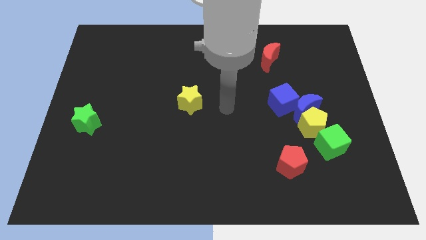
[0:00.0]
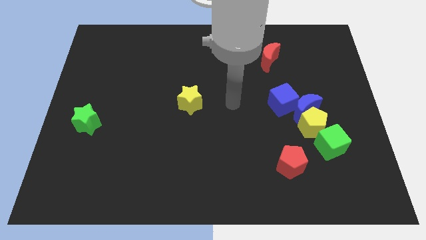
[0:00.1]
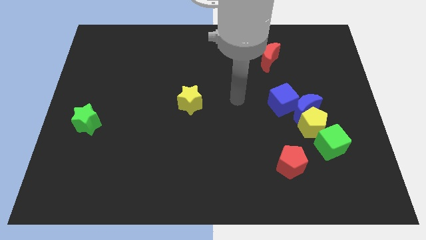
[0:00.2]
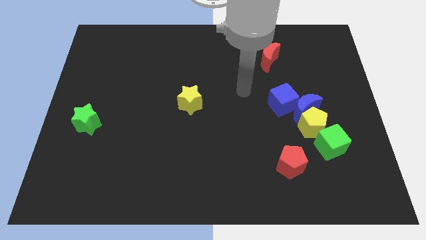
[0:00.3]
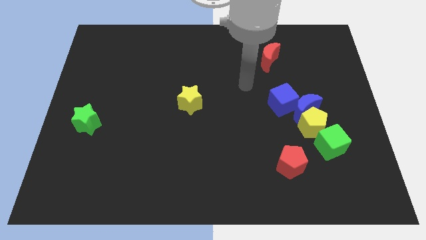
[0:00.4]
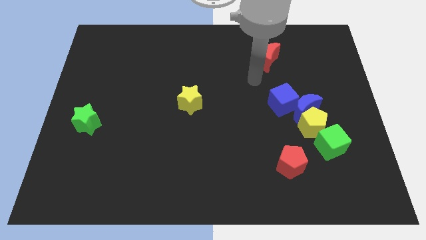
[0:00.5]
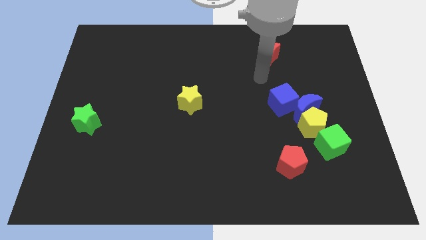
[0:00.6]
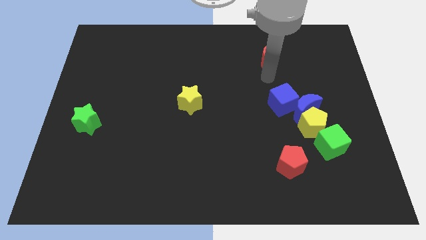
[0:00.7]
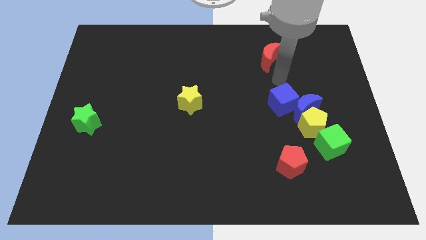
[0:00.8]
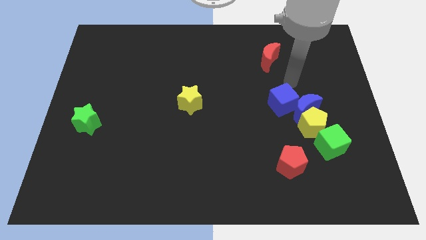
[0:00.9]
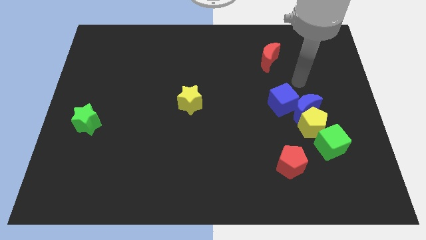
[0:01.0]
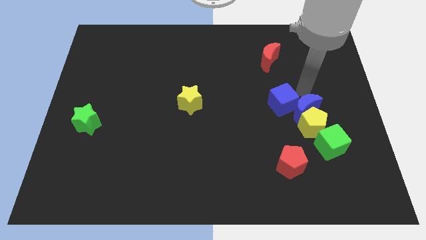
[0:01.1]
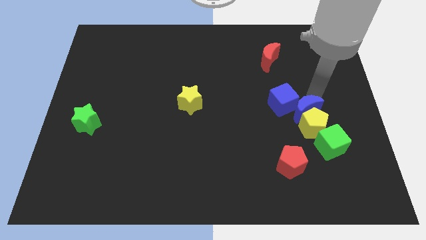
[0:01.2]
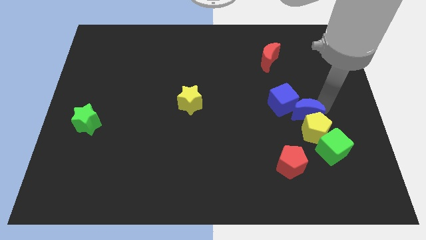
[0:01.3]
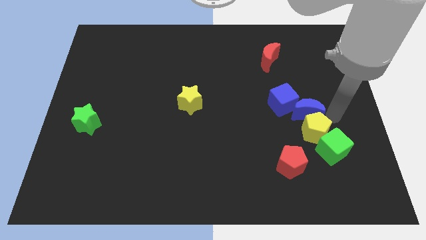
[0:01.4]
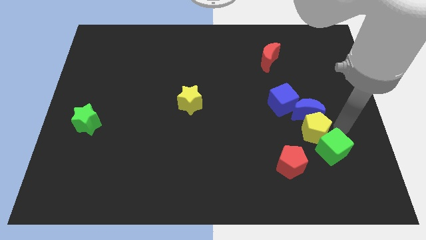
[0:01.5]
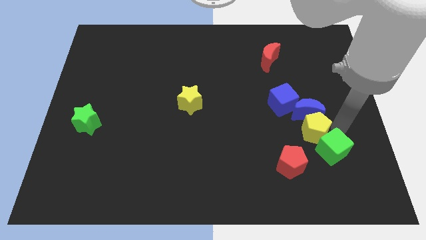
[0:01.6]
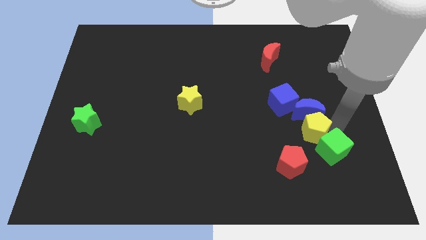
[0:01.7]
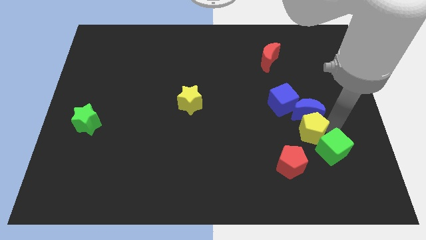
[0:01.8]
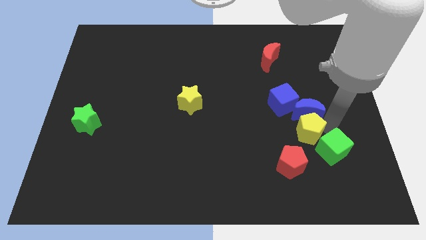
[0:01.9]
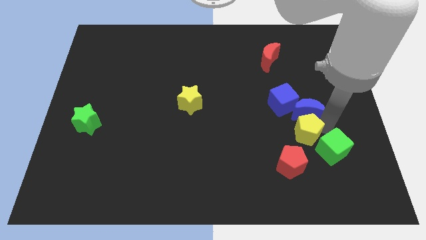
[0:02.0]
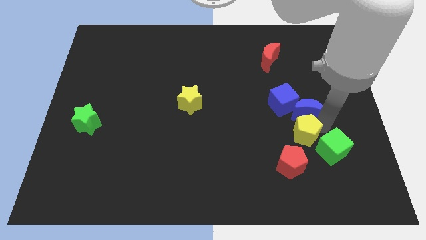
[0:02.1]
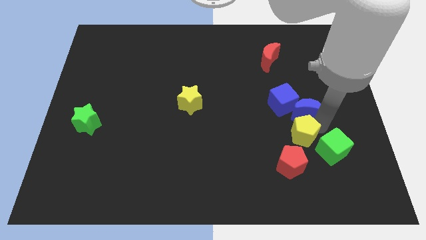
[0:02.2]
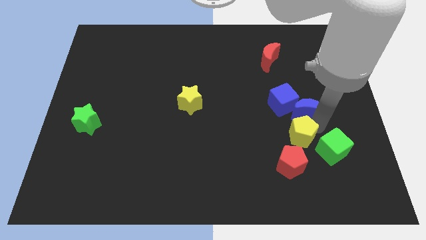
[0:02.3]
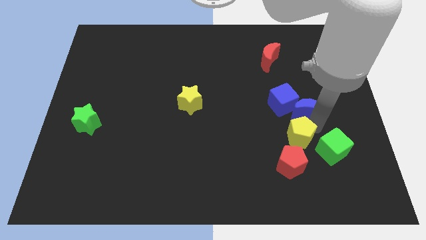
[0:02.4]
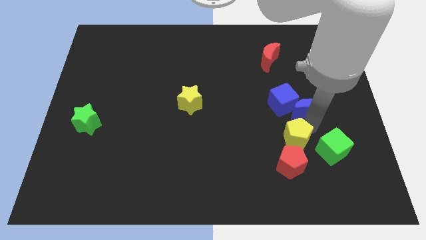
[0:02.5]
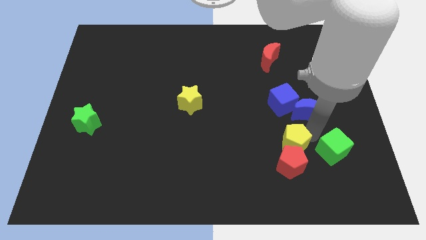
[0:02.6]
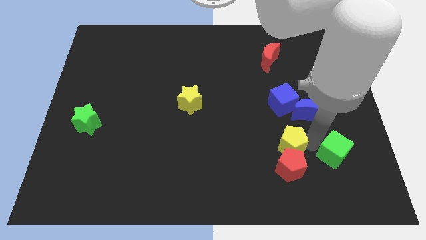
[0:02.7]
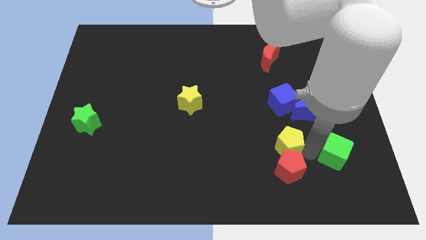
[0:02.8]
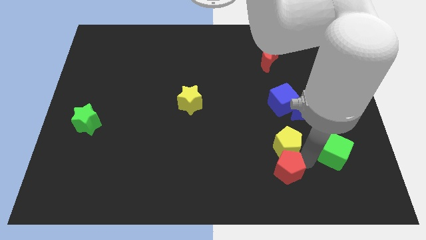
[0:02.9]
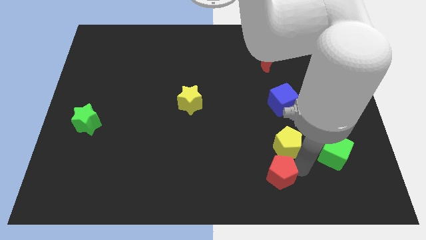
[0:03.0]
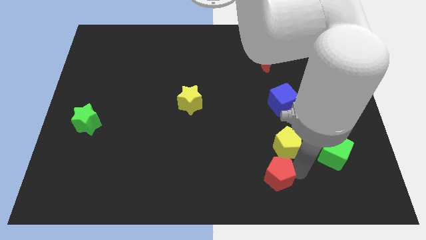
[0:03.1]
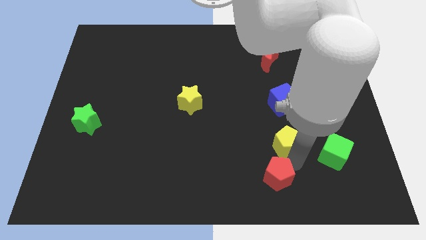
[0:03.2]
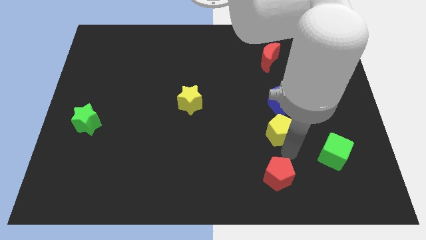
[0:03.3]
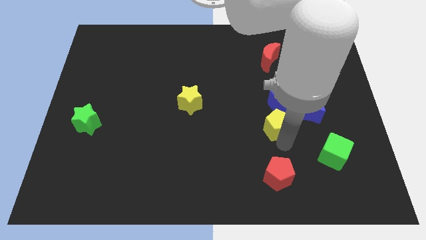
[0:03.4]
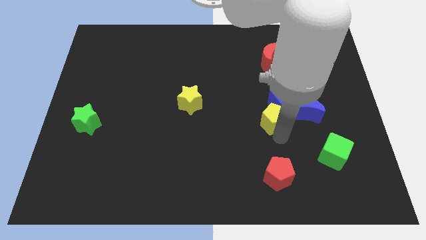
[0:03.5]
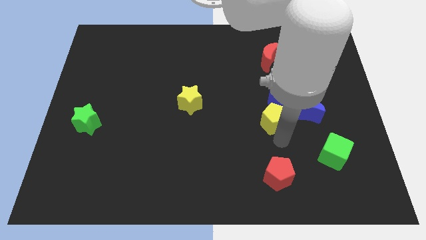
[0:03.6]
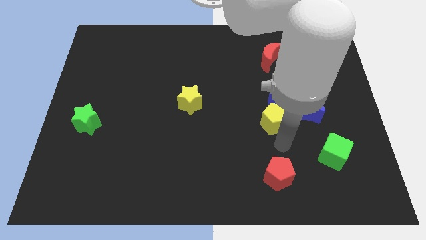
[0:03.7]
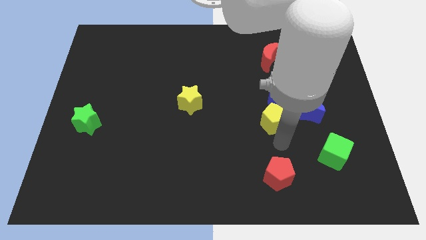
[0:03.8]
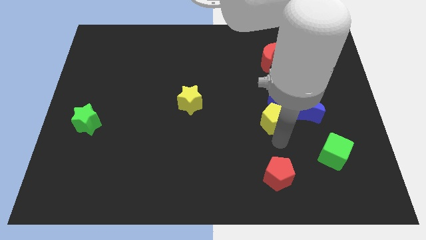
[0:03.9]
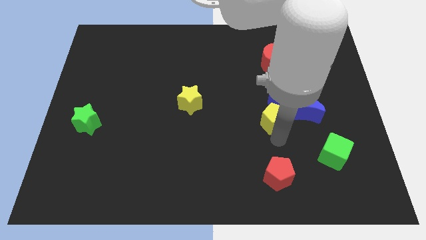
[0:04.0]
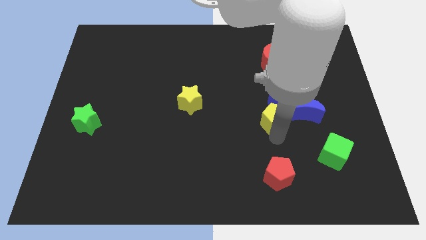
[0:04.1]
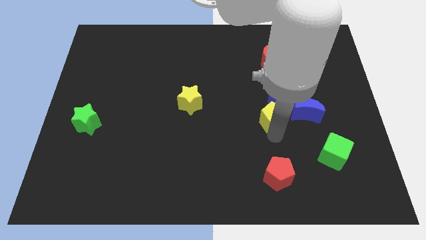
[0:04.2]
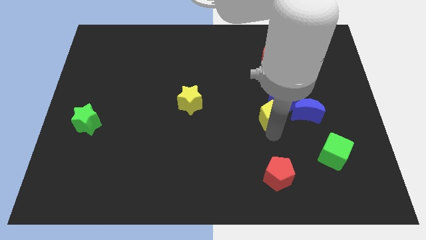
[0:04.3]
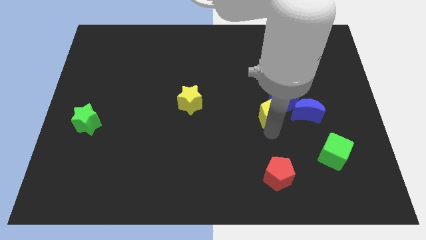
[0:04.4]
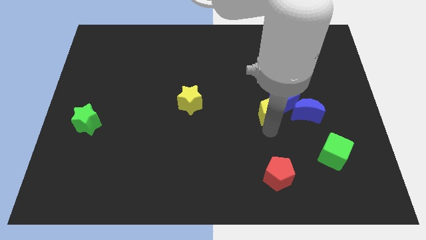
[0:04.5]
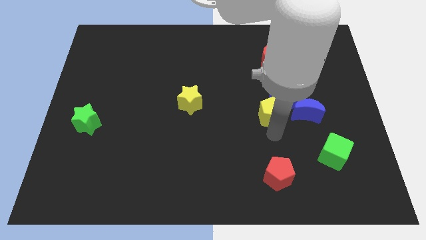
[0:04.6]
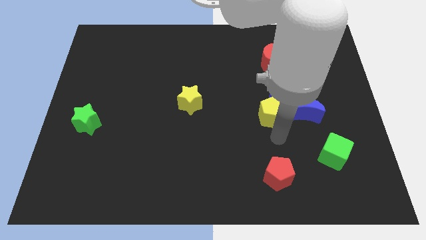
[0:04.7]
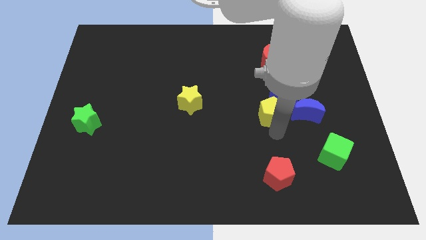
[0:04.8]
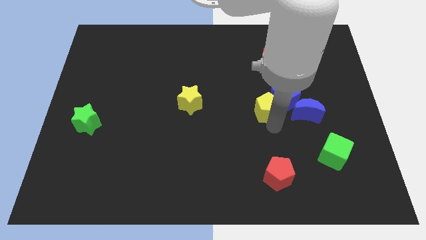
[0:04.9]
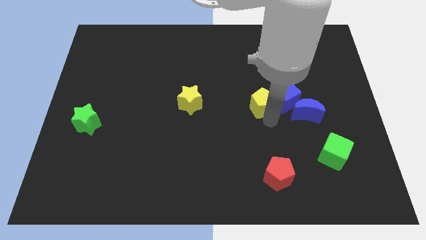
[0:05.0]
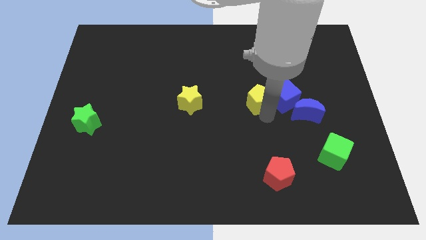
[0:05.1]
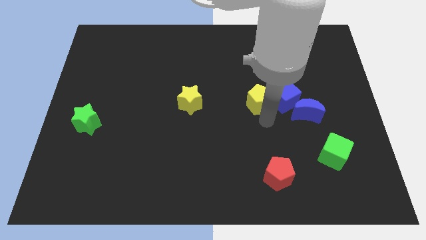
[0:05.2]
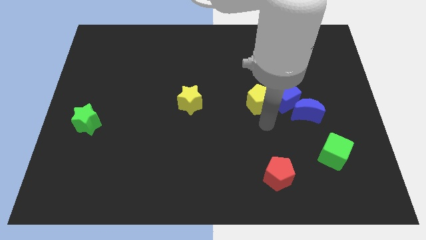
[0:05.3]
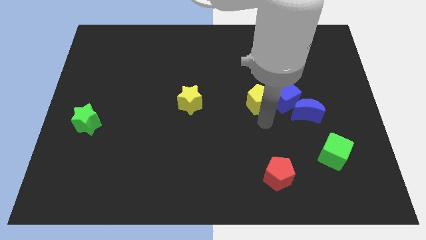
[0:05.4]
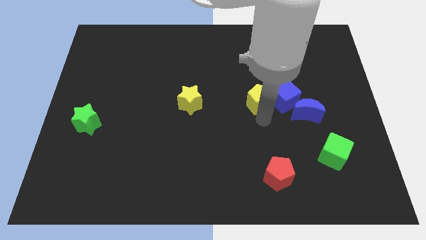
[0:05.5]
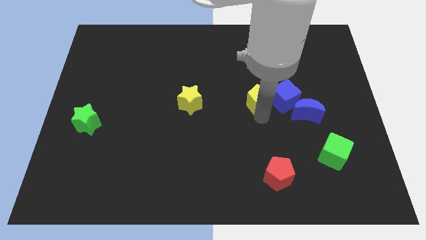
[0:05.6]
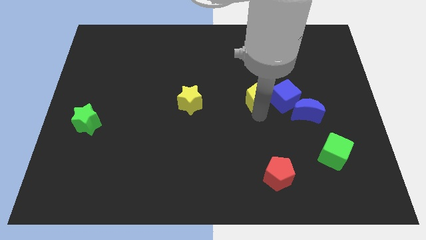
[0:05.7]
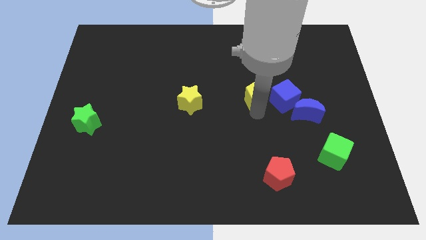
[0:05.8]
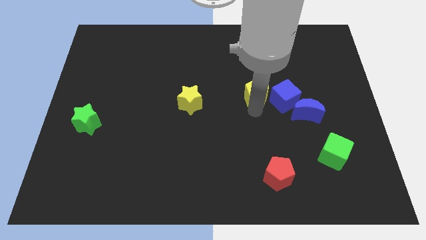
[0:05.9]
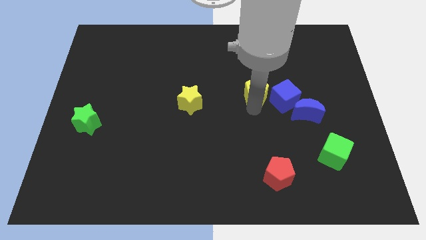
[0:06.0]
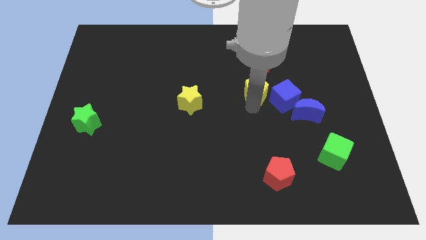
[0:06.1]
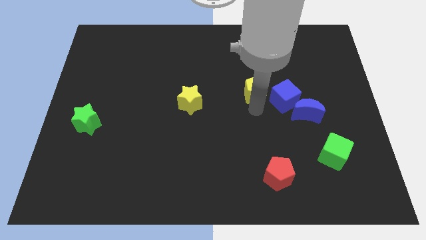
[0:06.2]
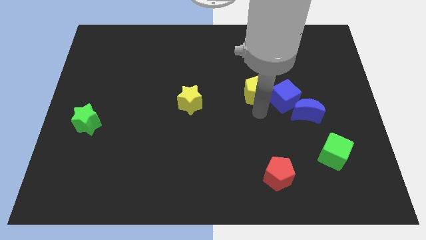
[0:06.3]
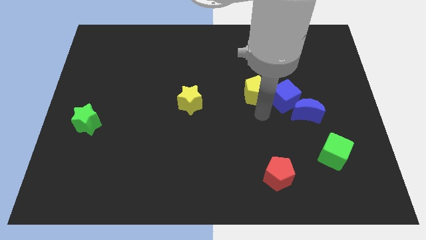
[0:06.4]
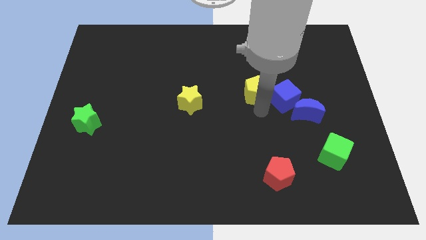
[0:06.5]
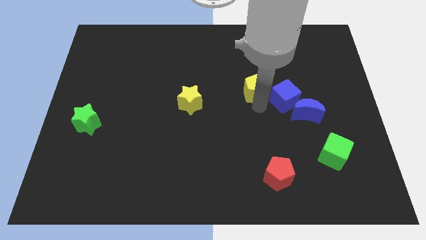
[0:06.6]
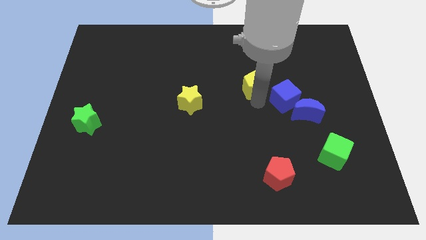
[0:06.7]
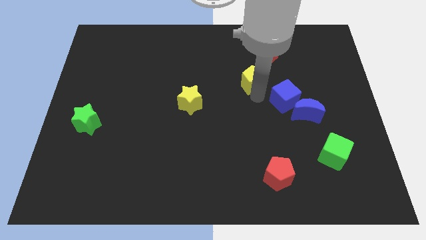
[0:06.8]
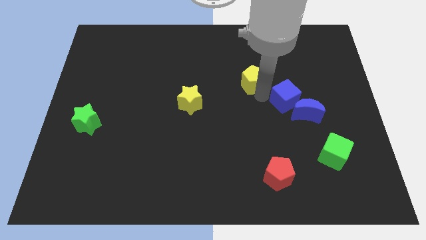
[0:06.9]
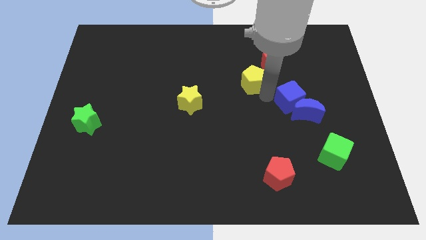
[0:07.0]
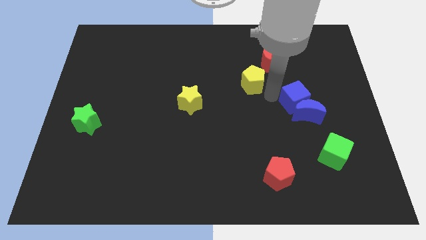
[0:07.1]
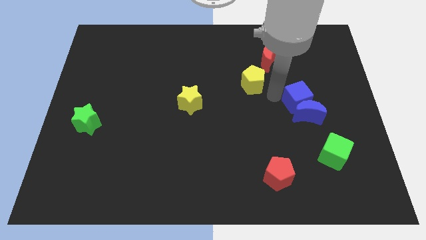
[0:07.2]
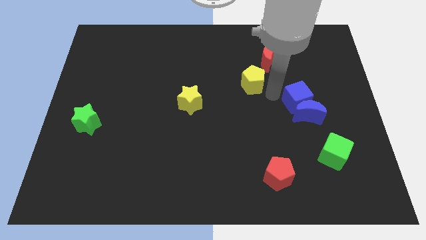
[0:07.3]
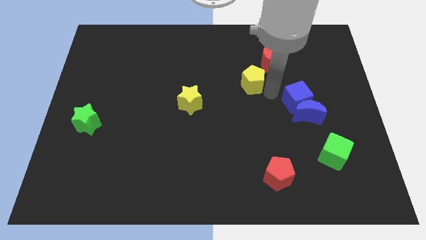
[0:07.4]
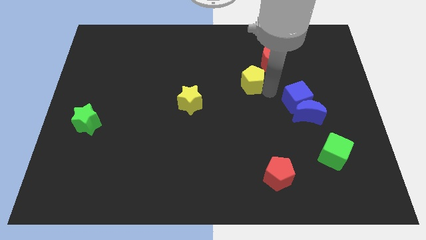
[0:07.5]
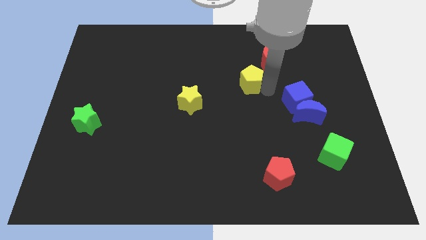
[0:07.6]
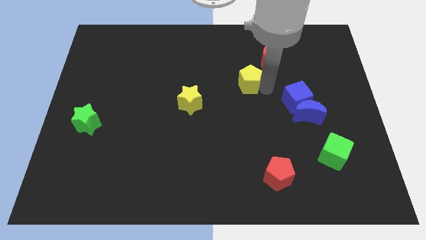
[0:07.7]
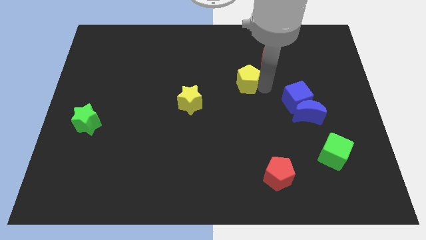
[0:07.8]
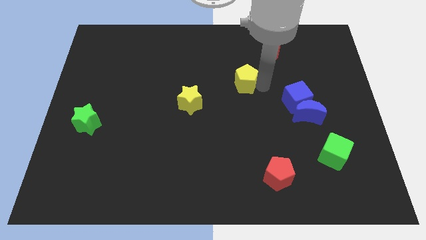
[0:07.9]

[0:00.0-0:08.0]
push the yellow pentagon upwards and to the left
